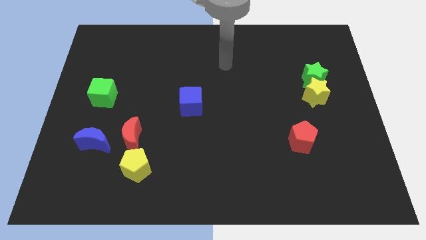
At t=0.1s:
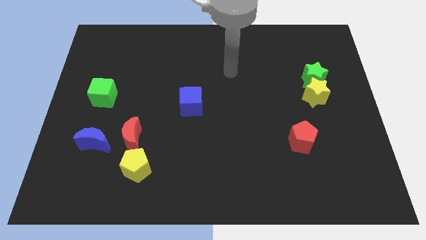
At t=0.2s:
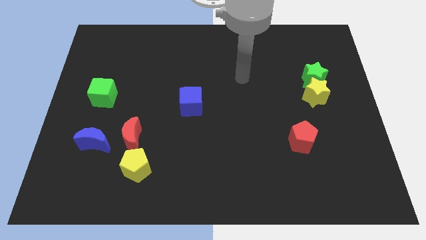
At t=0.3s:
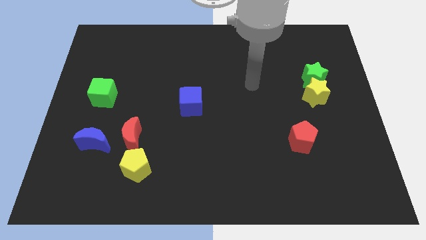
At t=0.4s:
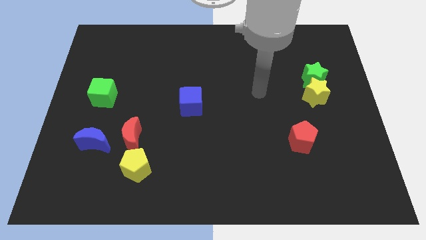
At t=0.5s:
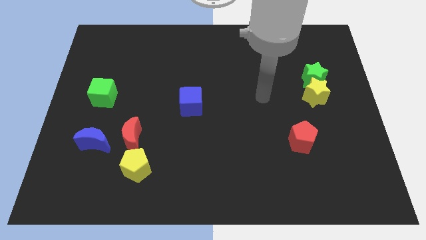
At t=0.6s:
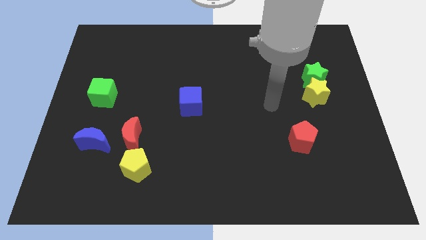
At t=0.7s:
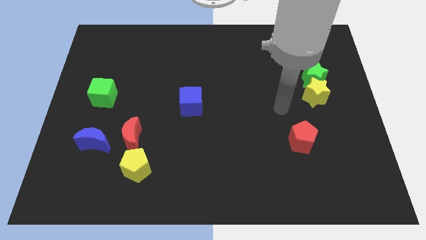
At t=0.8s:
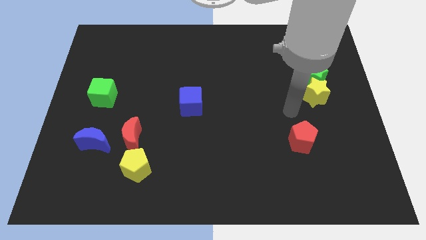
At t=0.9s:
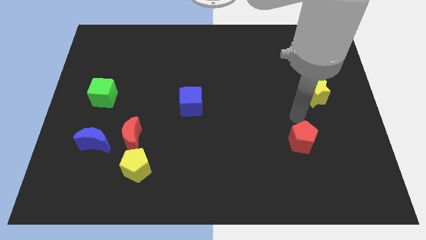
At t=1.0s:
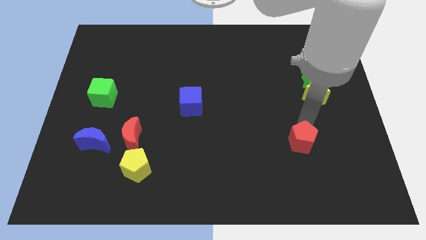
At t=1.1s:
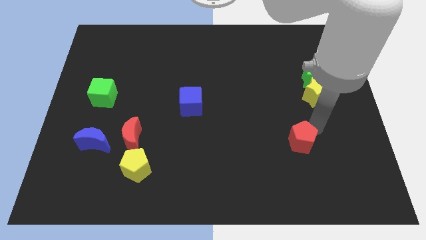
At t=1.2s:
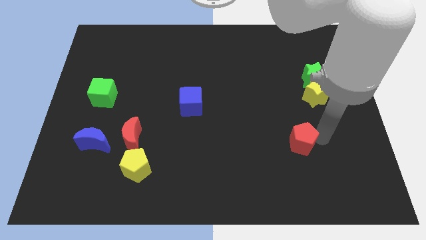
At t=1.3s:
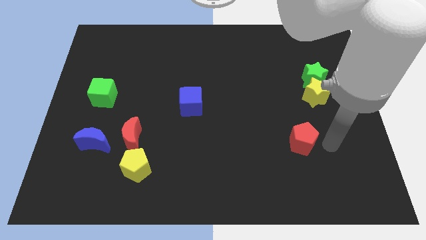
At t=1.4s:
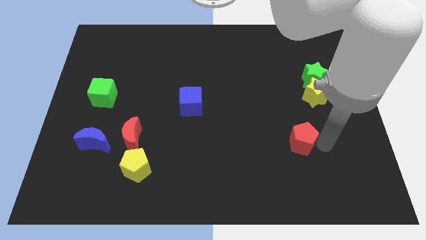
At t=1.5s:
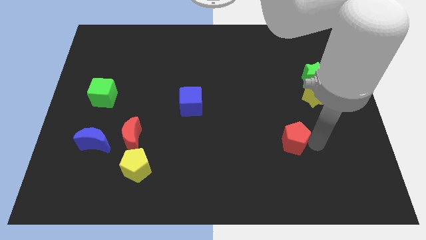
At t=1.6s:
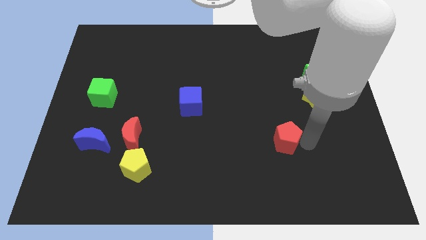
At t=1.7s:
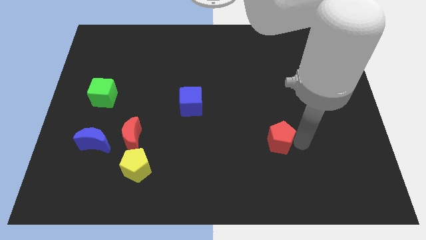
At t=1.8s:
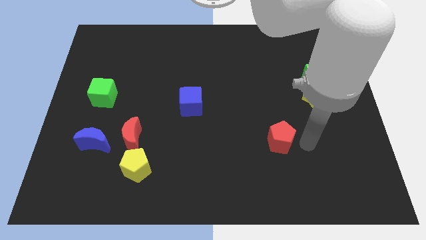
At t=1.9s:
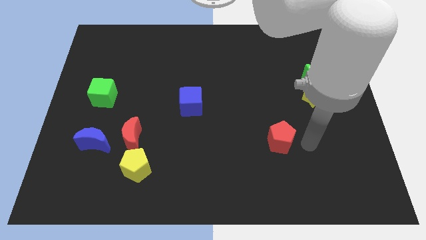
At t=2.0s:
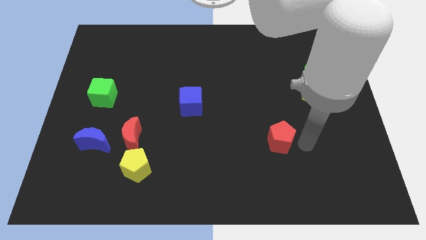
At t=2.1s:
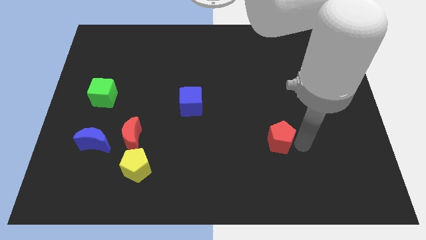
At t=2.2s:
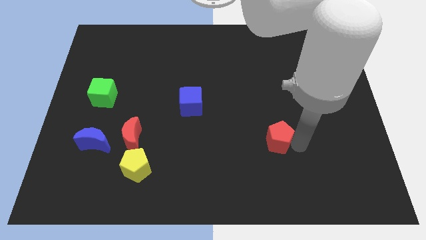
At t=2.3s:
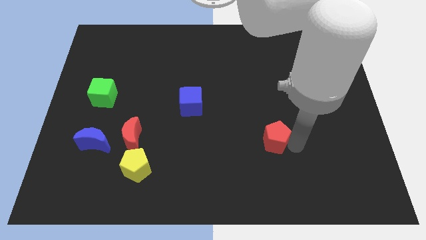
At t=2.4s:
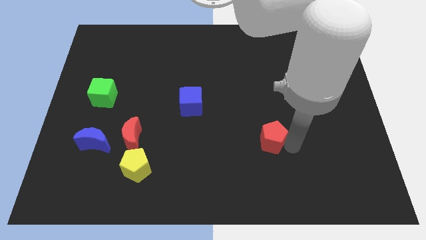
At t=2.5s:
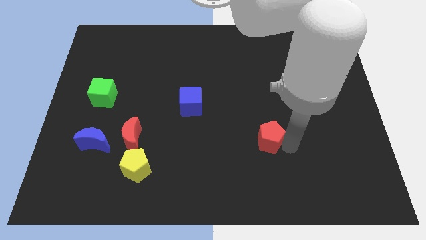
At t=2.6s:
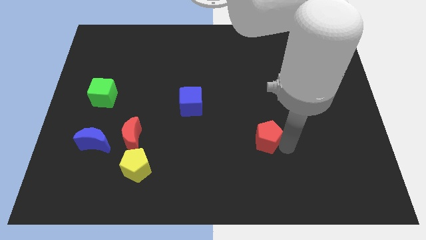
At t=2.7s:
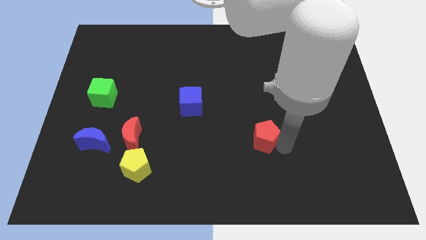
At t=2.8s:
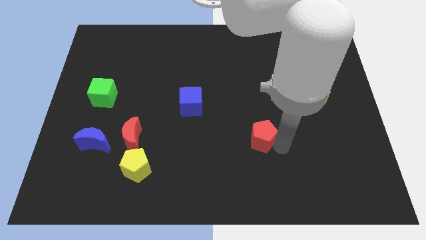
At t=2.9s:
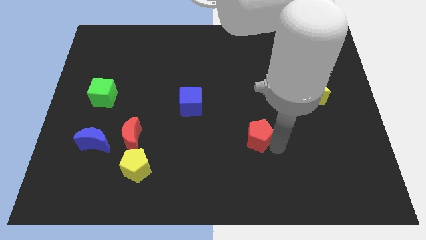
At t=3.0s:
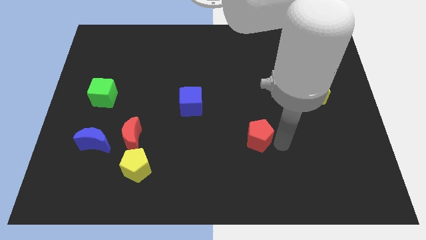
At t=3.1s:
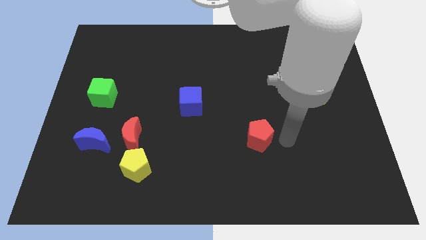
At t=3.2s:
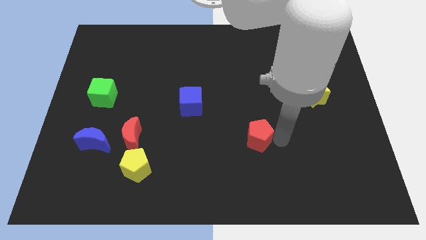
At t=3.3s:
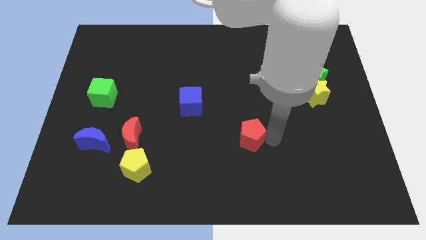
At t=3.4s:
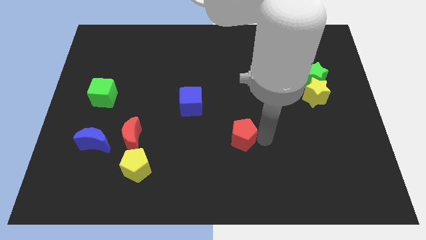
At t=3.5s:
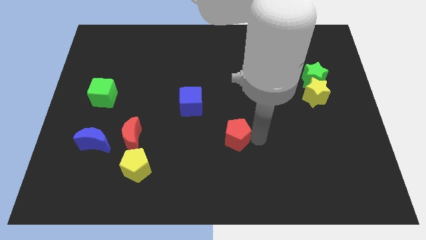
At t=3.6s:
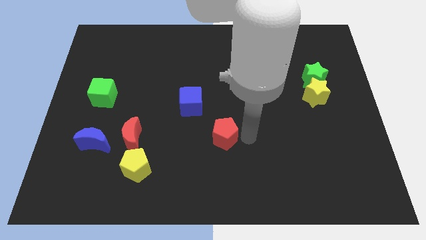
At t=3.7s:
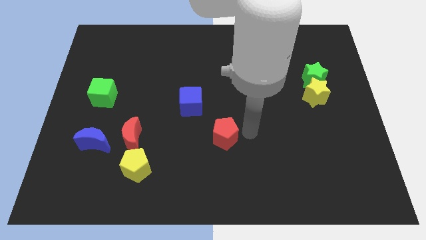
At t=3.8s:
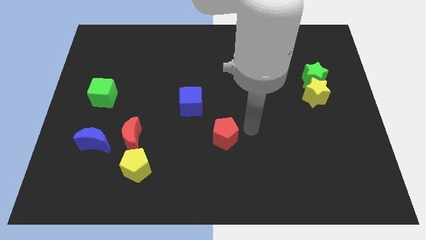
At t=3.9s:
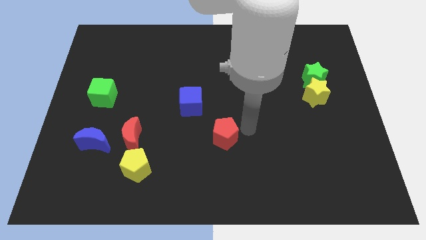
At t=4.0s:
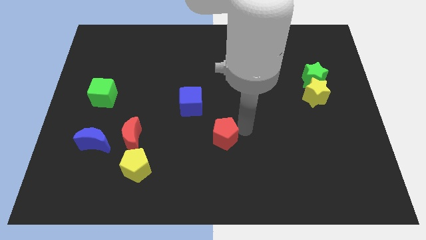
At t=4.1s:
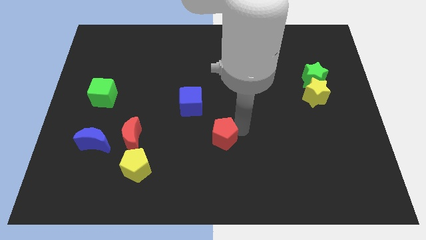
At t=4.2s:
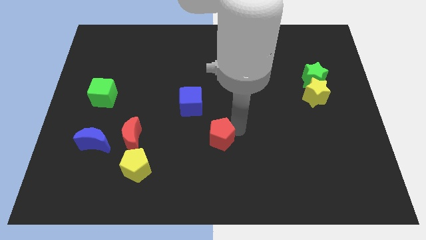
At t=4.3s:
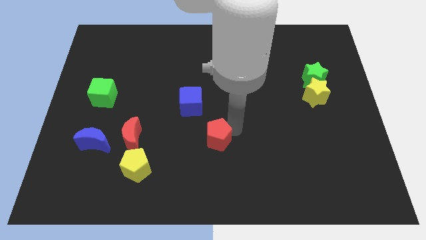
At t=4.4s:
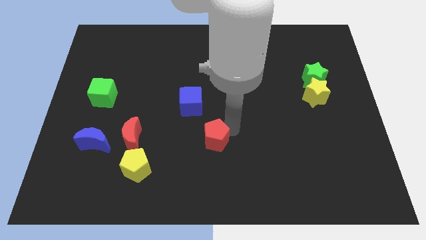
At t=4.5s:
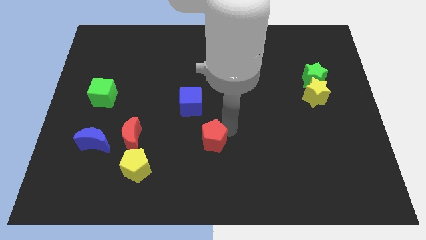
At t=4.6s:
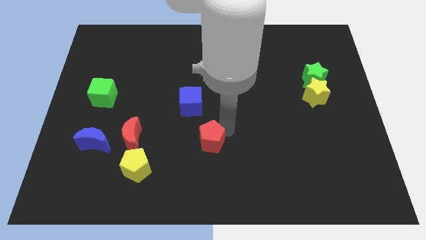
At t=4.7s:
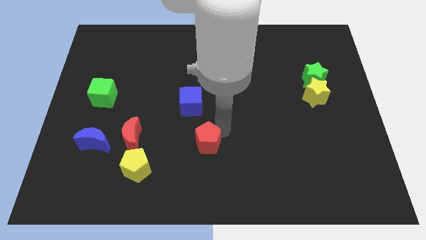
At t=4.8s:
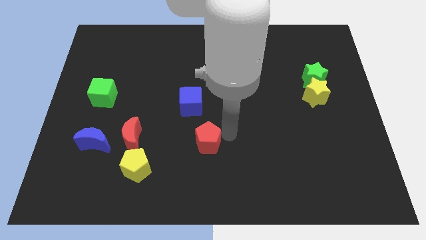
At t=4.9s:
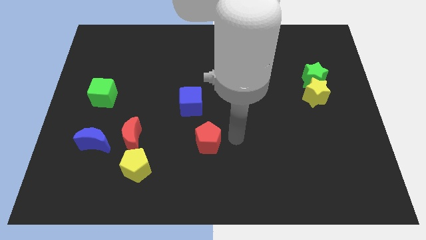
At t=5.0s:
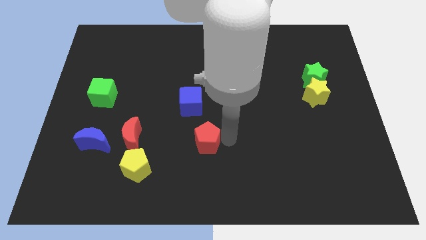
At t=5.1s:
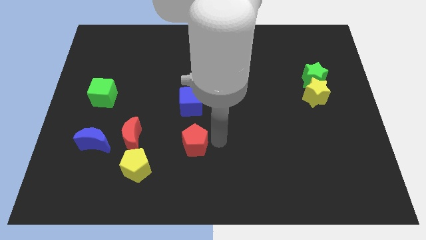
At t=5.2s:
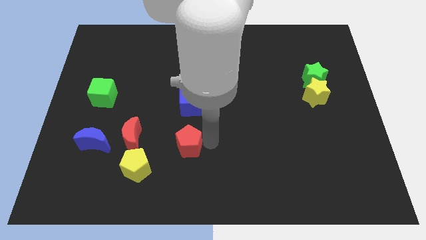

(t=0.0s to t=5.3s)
push the red pentagon to the top right of the yellow pentagon

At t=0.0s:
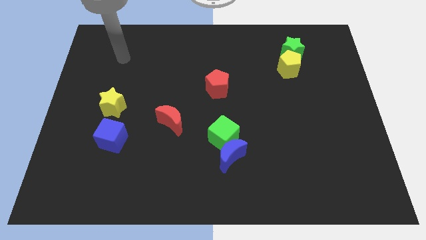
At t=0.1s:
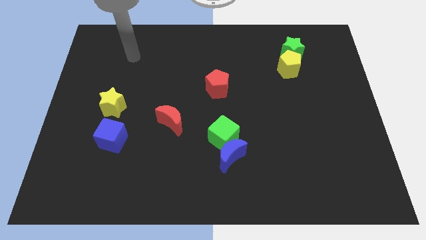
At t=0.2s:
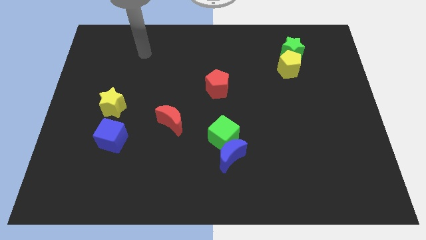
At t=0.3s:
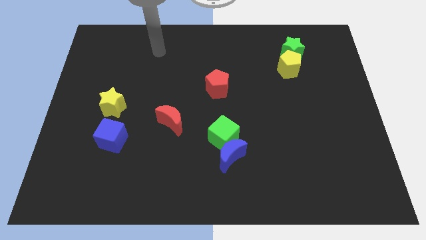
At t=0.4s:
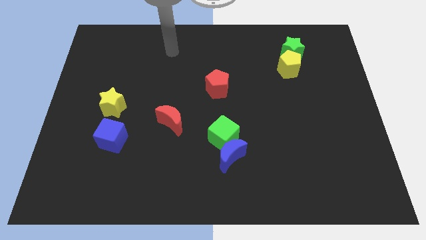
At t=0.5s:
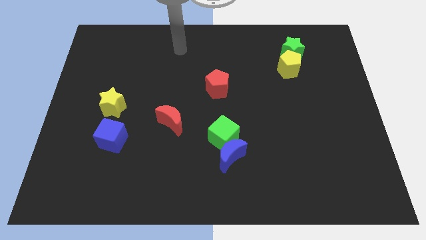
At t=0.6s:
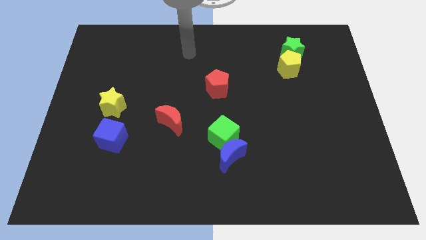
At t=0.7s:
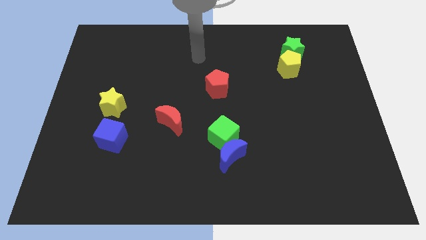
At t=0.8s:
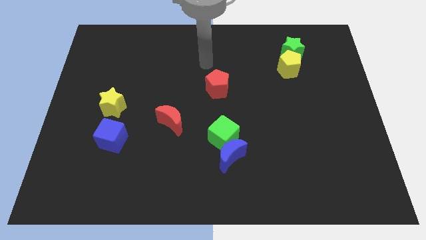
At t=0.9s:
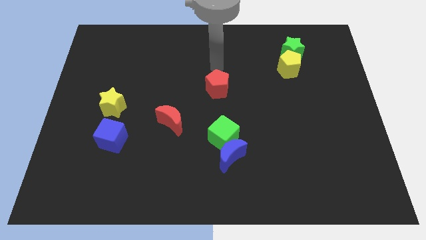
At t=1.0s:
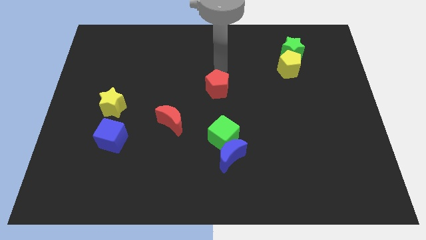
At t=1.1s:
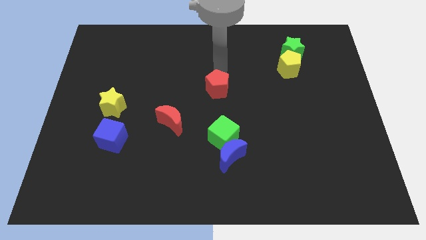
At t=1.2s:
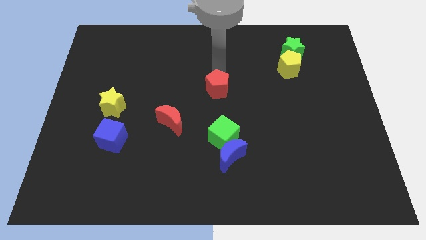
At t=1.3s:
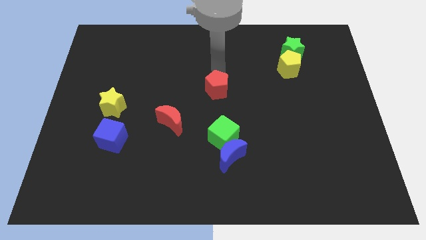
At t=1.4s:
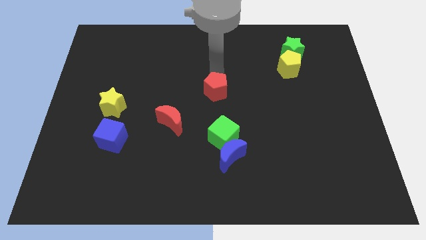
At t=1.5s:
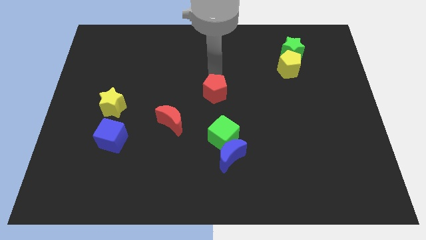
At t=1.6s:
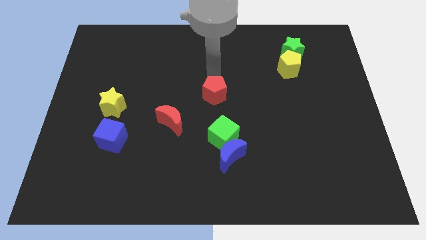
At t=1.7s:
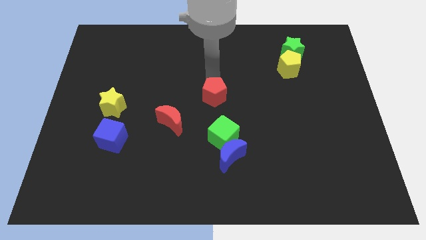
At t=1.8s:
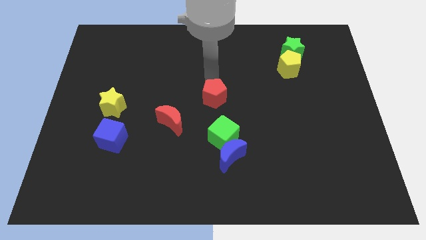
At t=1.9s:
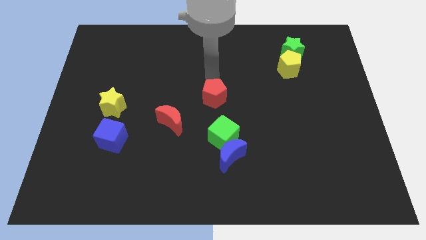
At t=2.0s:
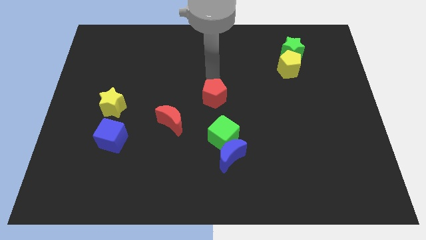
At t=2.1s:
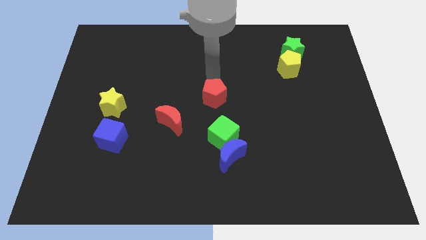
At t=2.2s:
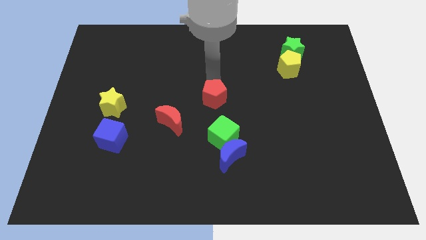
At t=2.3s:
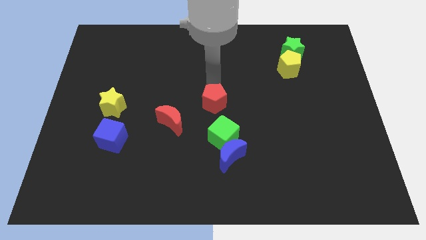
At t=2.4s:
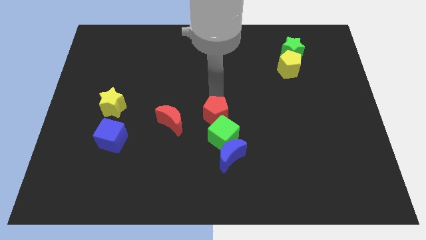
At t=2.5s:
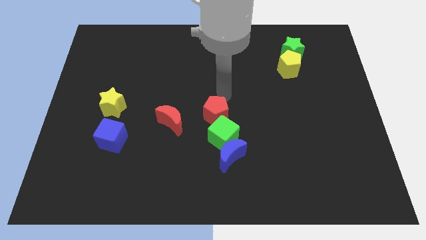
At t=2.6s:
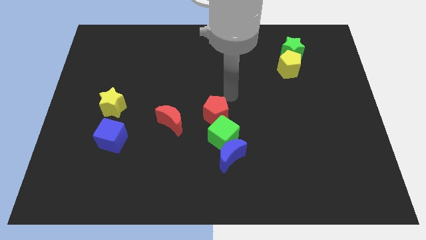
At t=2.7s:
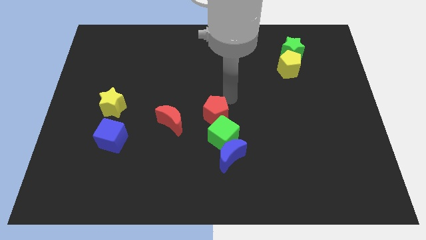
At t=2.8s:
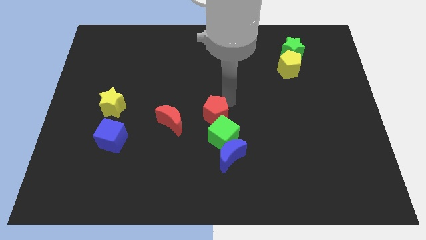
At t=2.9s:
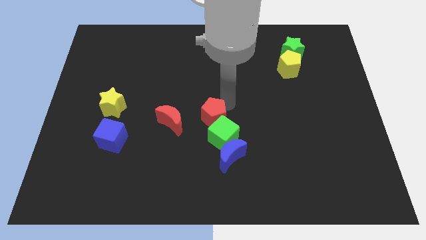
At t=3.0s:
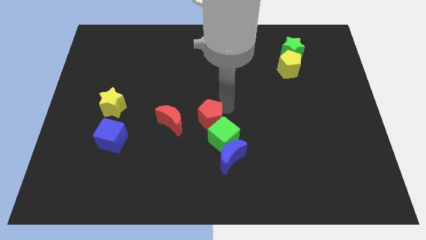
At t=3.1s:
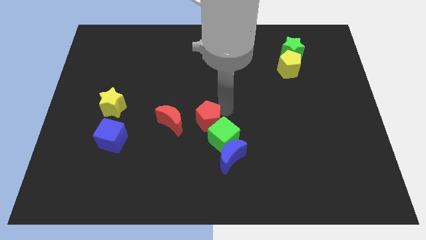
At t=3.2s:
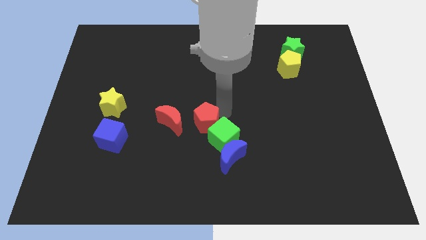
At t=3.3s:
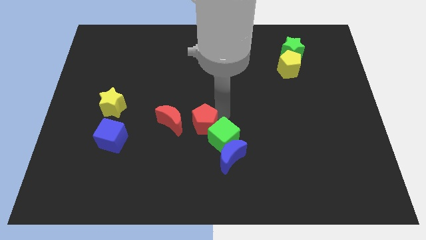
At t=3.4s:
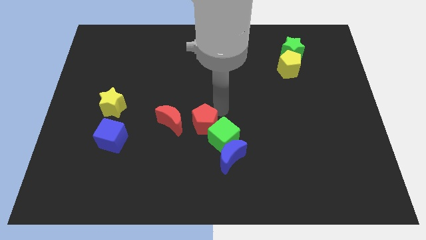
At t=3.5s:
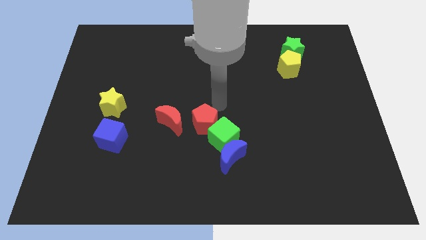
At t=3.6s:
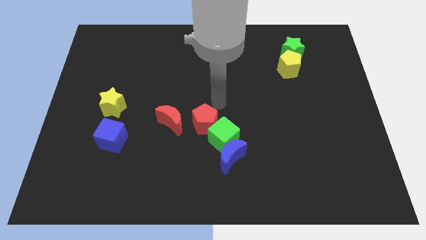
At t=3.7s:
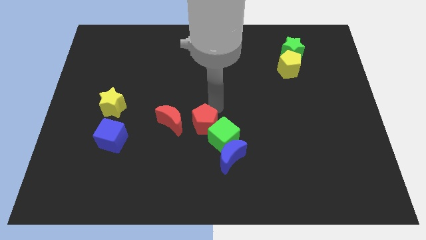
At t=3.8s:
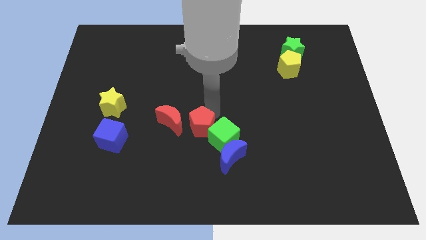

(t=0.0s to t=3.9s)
put the red pentagon to the bottom right side of the red moon
